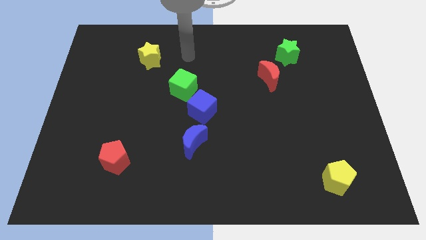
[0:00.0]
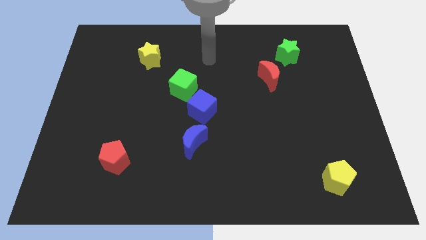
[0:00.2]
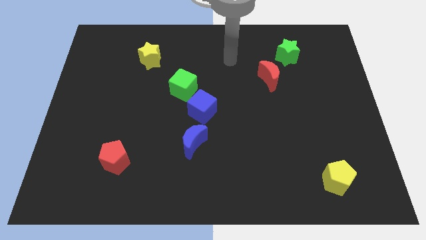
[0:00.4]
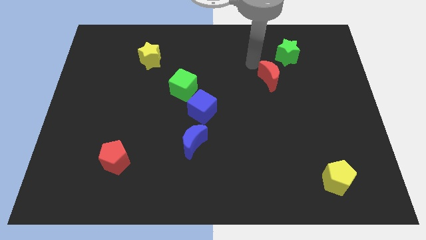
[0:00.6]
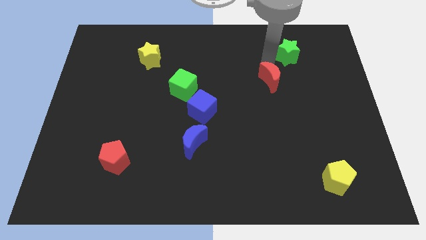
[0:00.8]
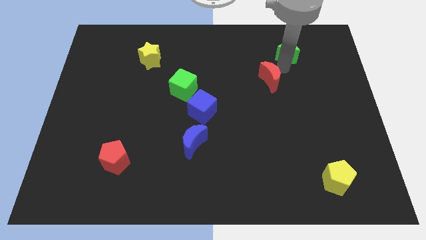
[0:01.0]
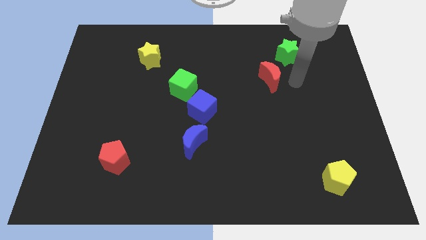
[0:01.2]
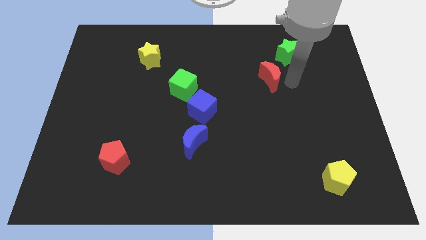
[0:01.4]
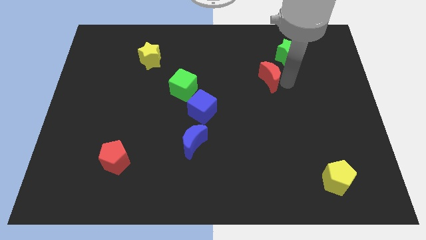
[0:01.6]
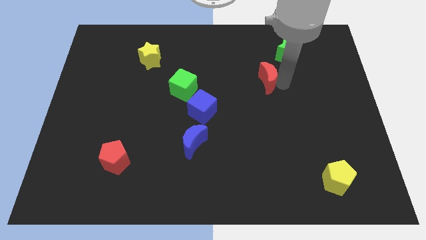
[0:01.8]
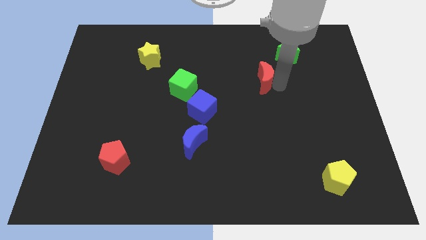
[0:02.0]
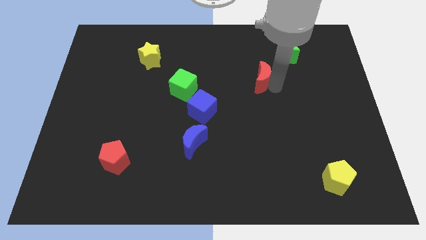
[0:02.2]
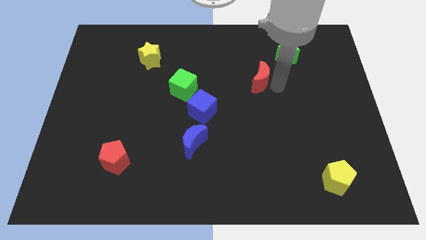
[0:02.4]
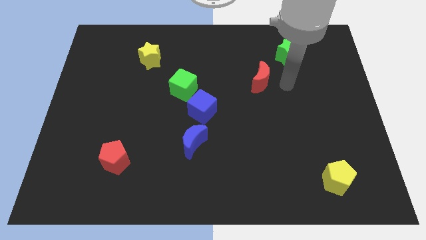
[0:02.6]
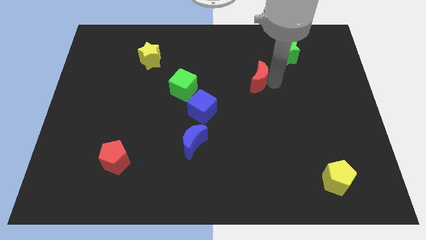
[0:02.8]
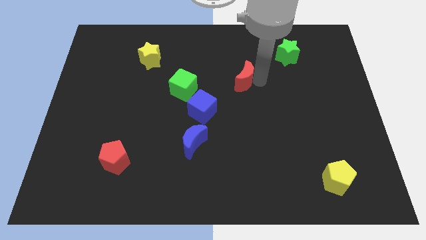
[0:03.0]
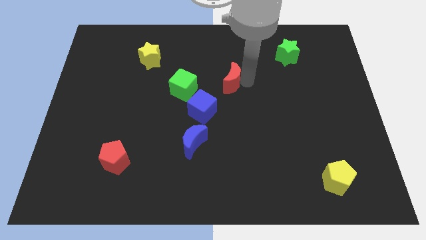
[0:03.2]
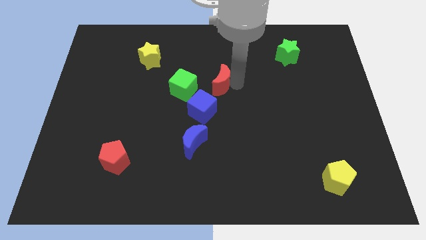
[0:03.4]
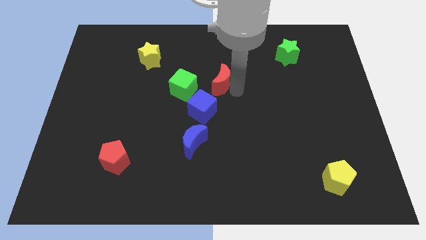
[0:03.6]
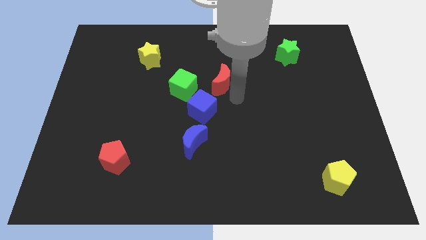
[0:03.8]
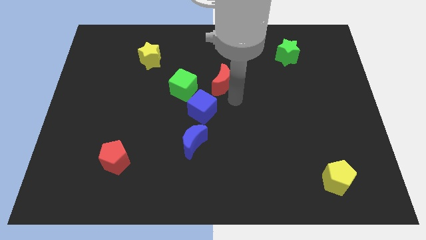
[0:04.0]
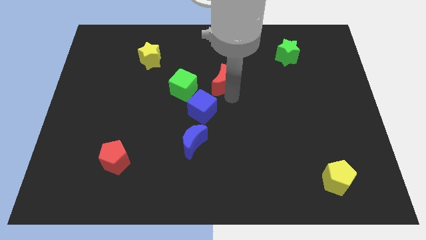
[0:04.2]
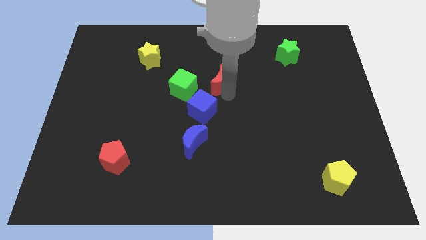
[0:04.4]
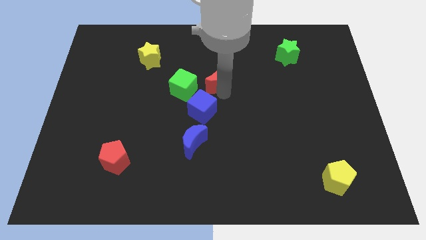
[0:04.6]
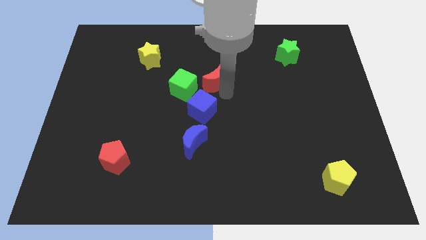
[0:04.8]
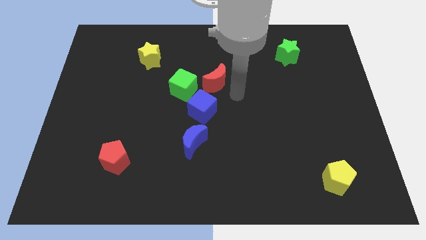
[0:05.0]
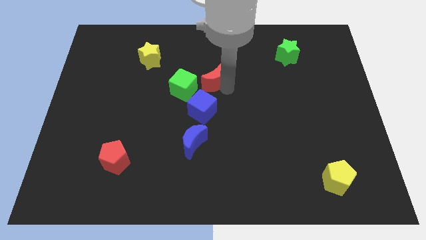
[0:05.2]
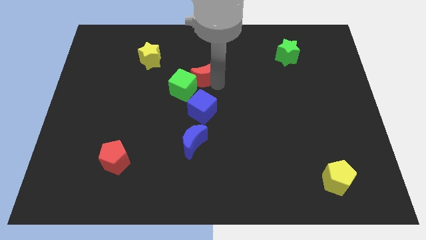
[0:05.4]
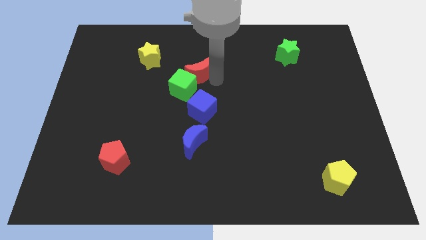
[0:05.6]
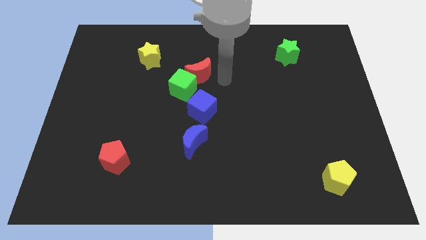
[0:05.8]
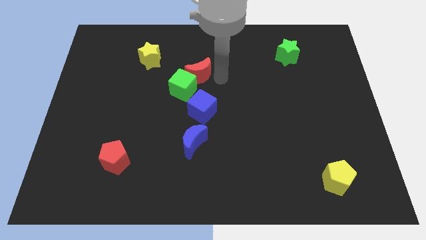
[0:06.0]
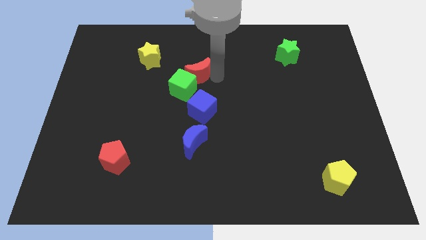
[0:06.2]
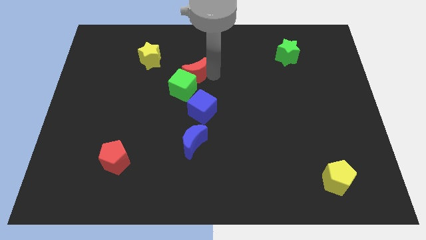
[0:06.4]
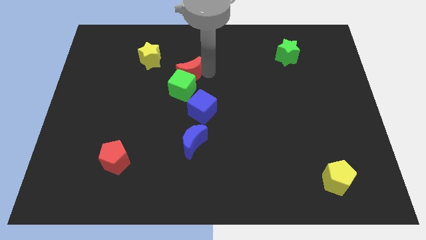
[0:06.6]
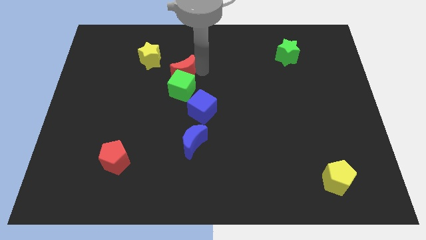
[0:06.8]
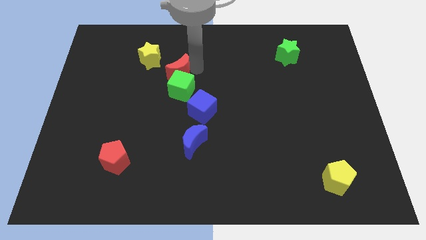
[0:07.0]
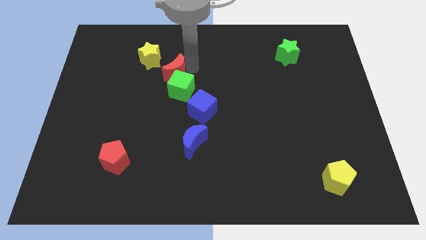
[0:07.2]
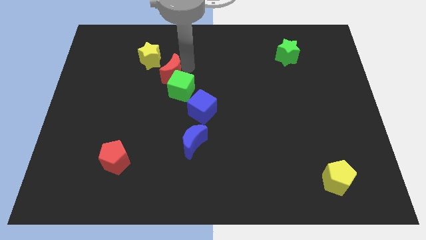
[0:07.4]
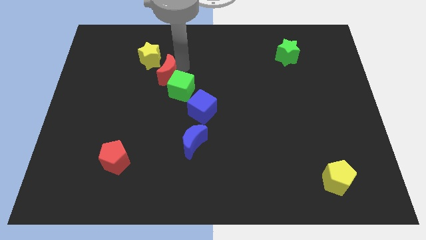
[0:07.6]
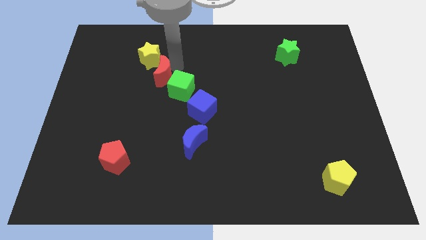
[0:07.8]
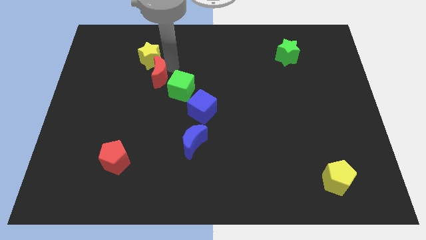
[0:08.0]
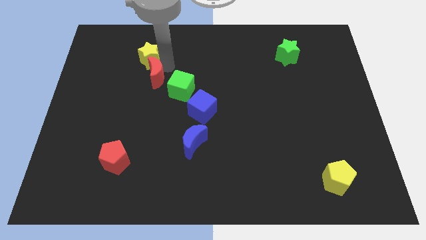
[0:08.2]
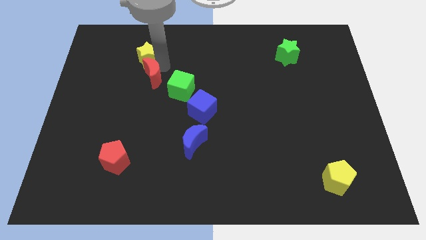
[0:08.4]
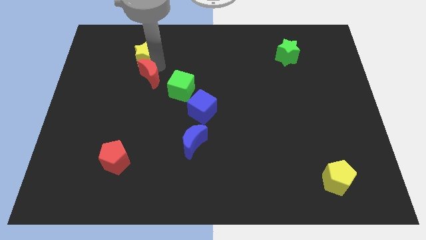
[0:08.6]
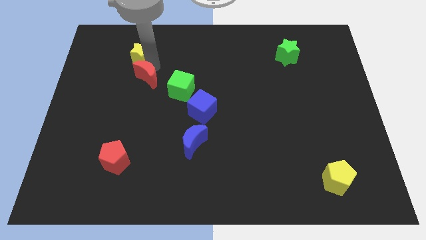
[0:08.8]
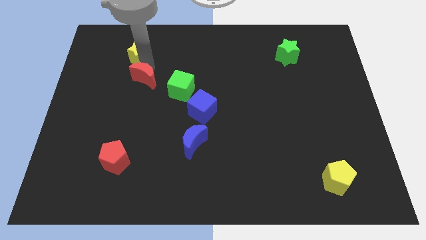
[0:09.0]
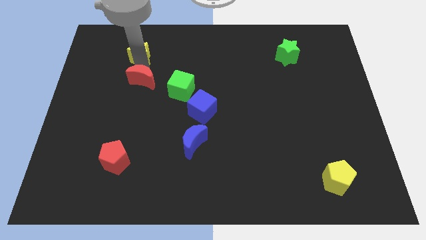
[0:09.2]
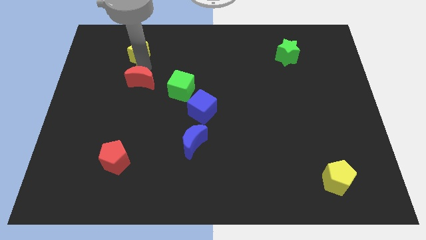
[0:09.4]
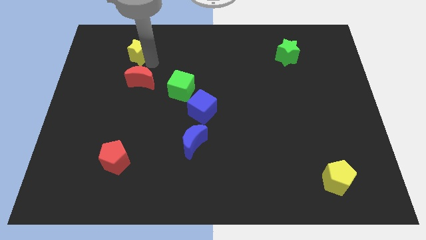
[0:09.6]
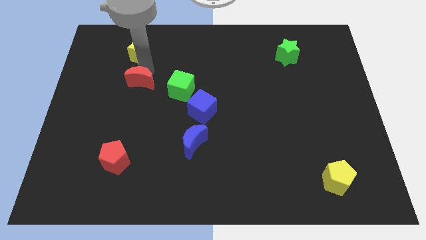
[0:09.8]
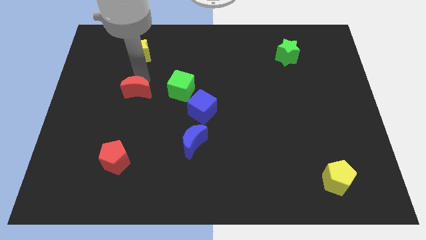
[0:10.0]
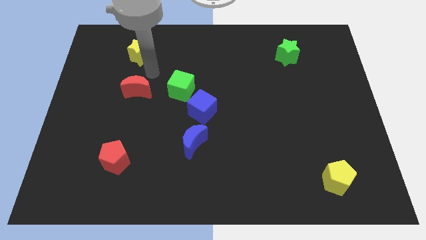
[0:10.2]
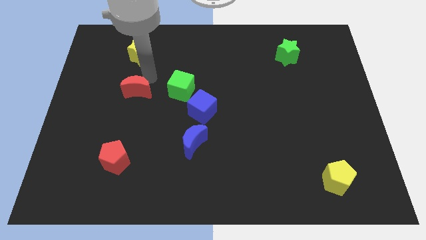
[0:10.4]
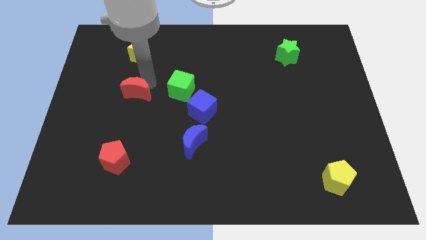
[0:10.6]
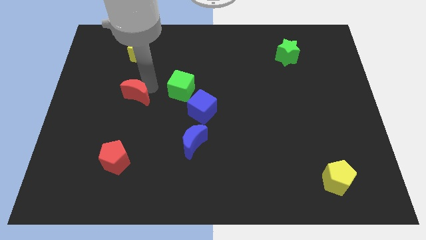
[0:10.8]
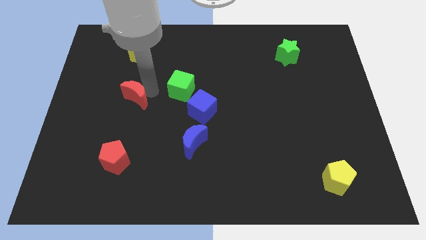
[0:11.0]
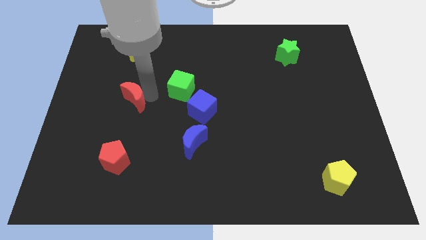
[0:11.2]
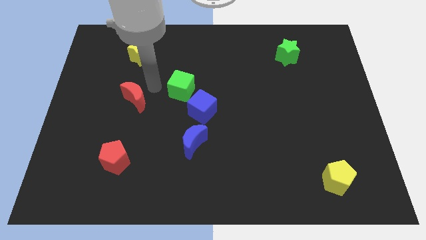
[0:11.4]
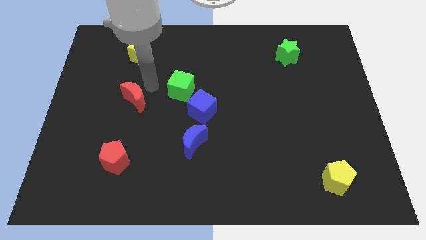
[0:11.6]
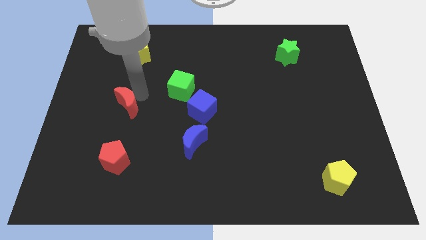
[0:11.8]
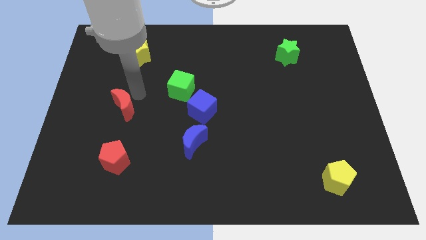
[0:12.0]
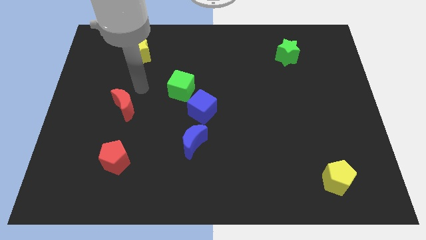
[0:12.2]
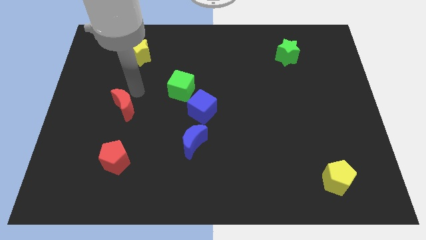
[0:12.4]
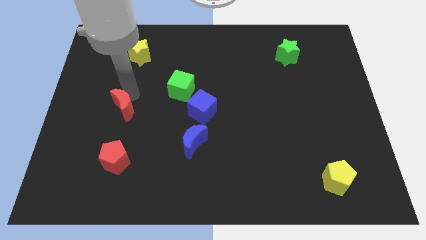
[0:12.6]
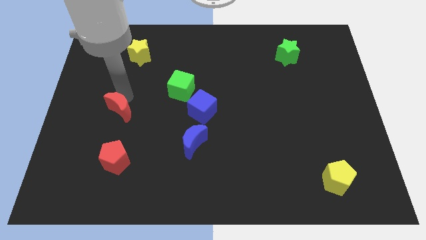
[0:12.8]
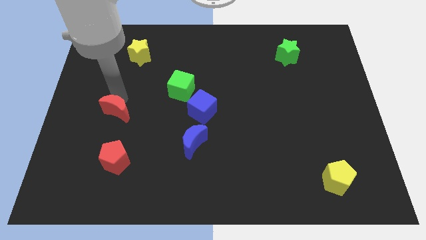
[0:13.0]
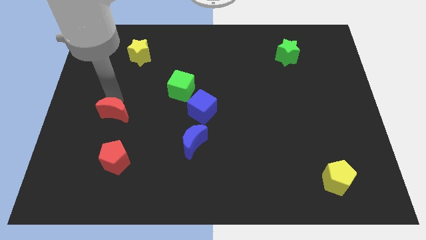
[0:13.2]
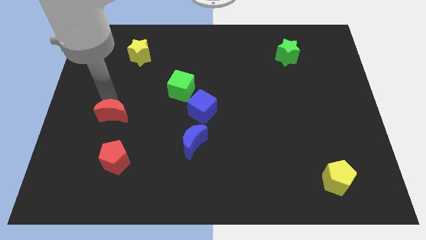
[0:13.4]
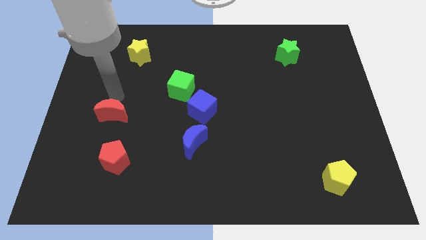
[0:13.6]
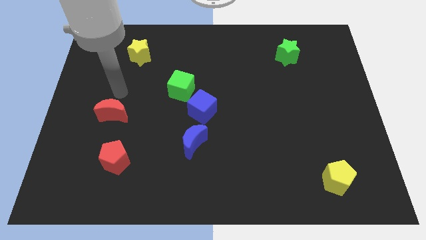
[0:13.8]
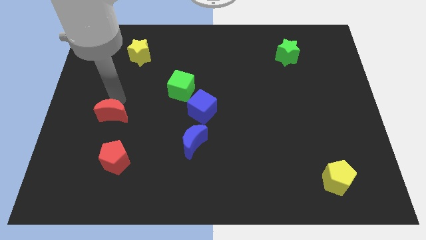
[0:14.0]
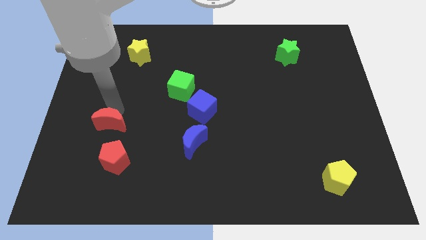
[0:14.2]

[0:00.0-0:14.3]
push the red moon to the top left side of the red pentagon

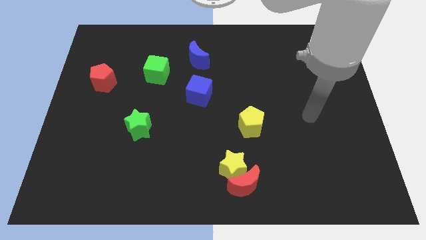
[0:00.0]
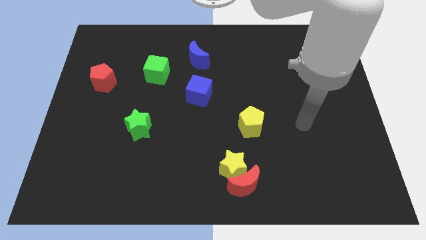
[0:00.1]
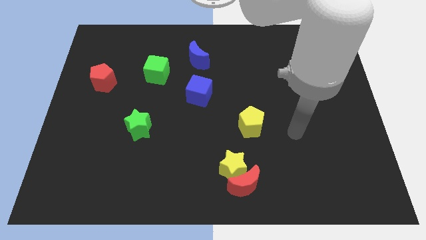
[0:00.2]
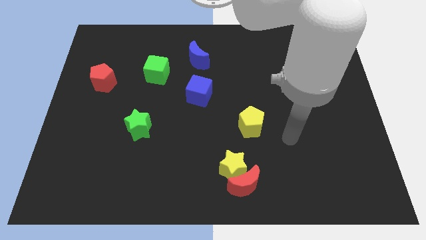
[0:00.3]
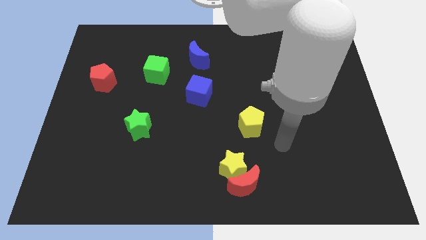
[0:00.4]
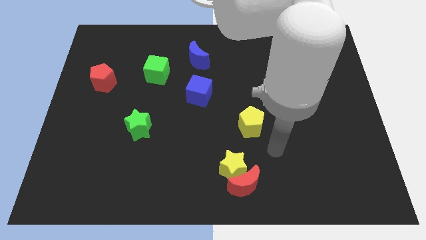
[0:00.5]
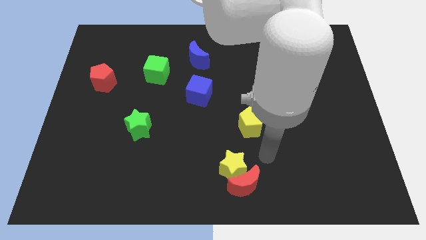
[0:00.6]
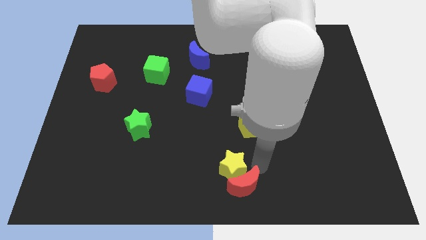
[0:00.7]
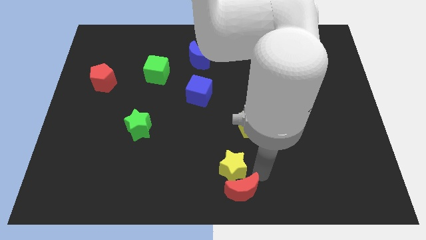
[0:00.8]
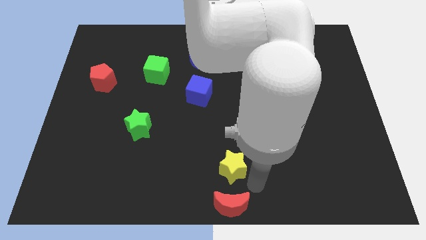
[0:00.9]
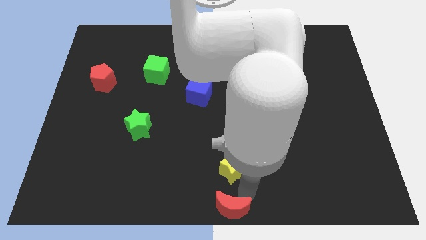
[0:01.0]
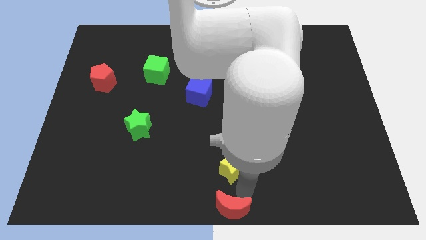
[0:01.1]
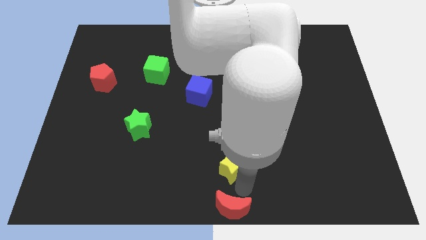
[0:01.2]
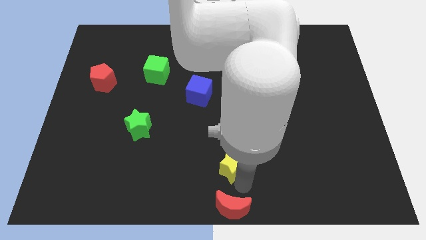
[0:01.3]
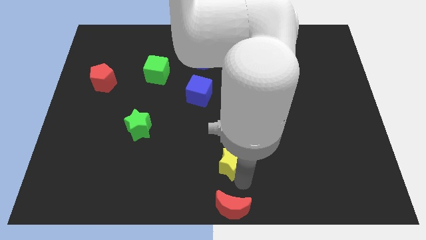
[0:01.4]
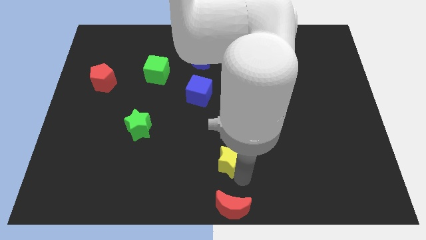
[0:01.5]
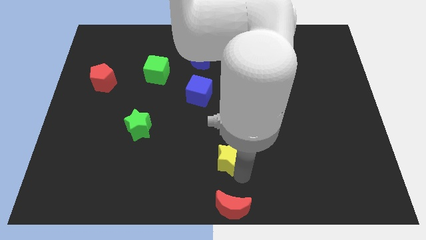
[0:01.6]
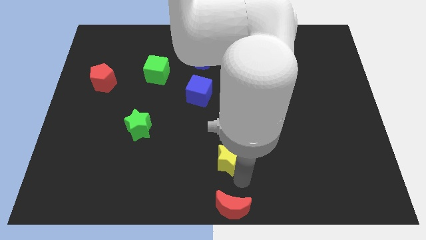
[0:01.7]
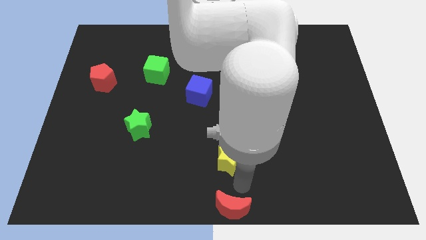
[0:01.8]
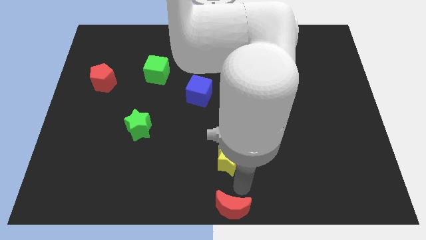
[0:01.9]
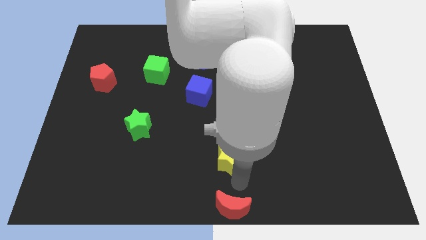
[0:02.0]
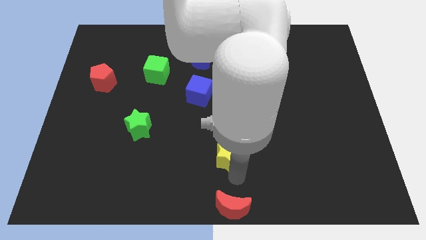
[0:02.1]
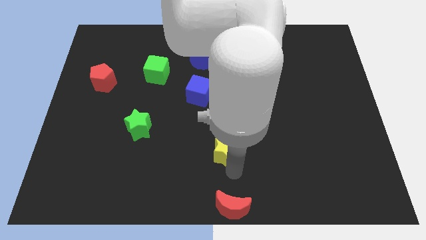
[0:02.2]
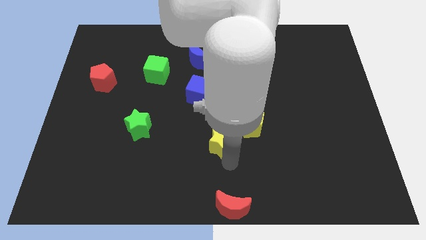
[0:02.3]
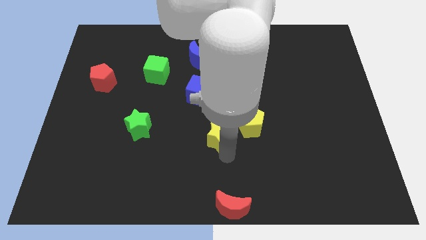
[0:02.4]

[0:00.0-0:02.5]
move the yellow star left of the yellow pentagon
